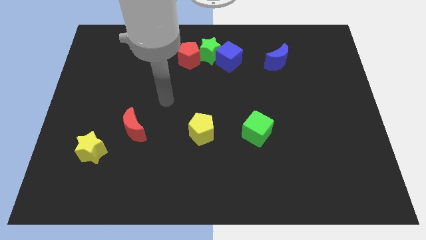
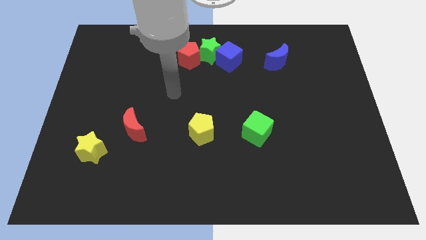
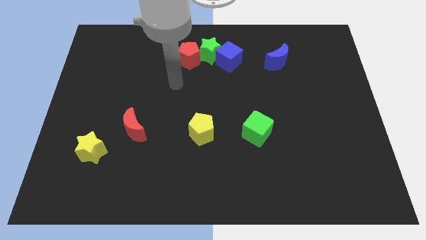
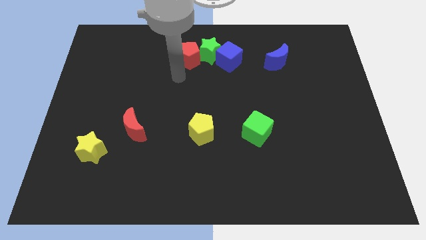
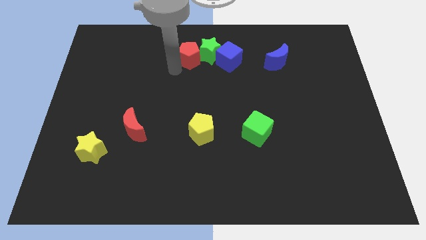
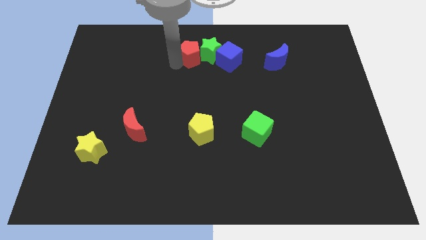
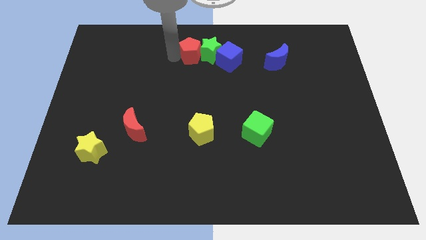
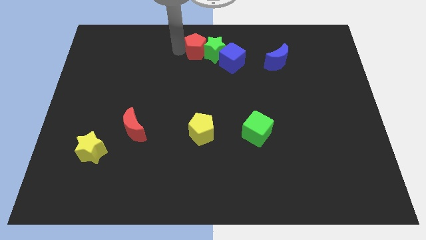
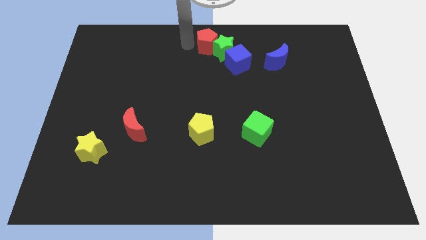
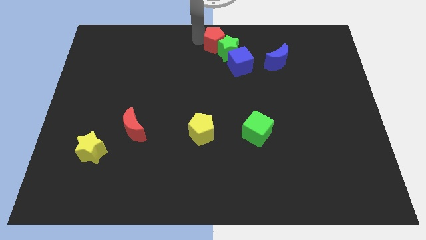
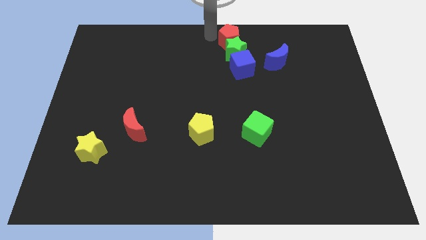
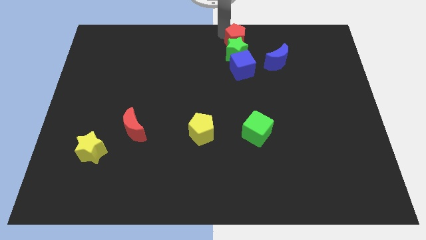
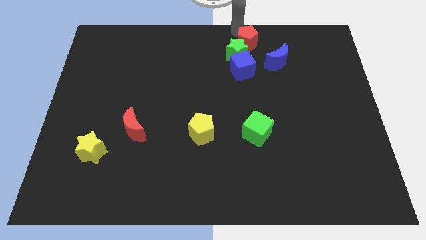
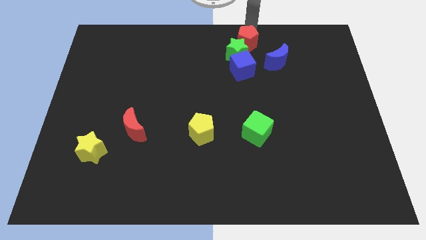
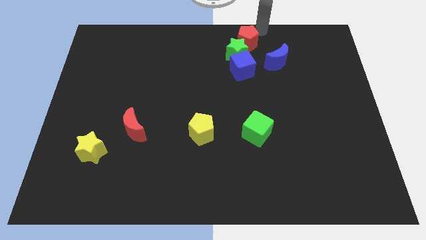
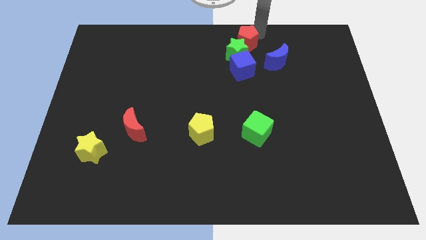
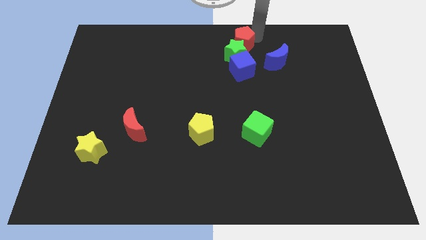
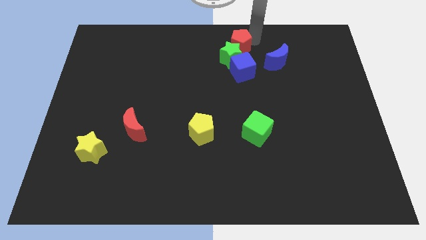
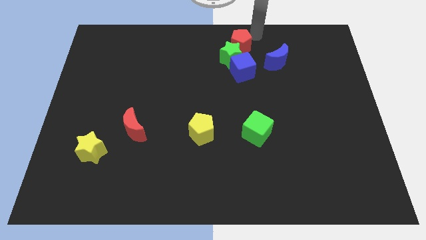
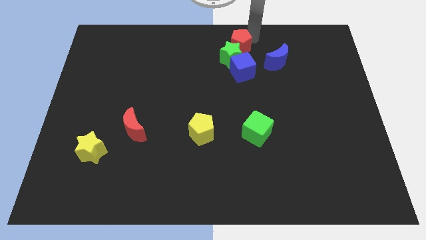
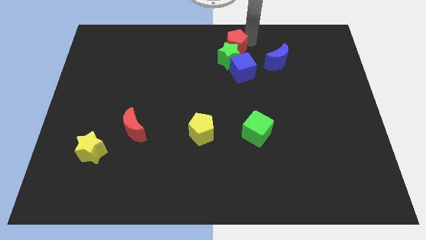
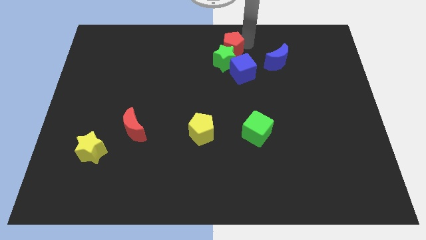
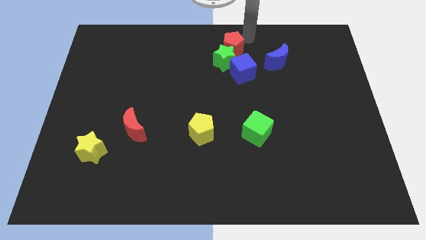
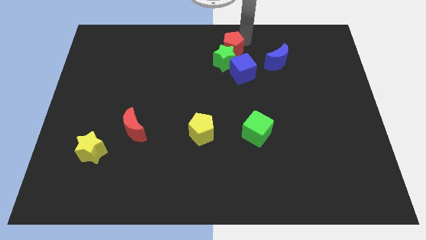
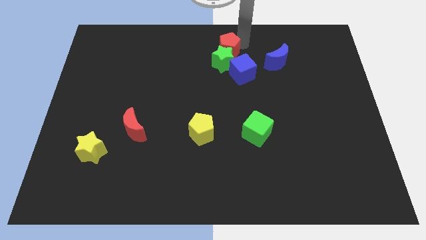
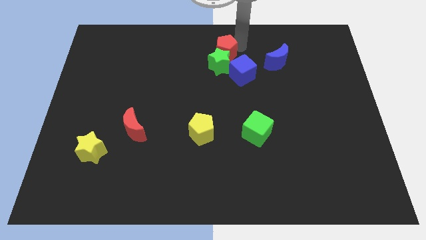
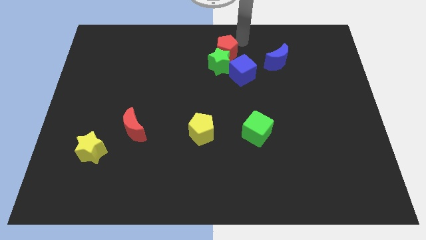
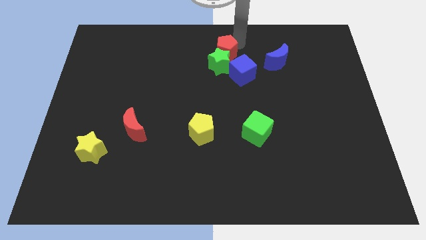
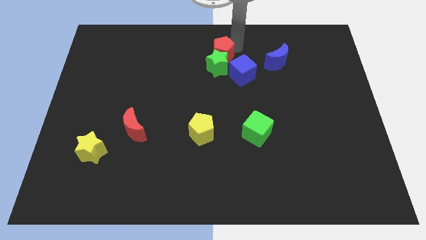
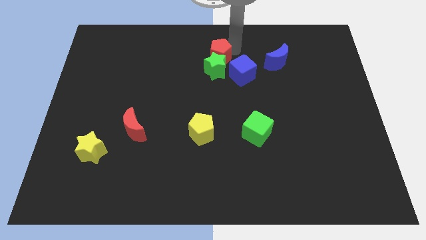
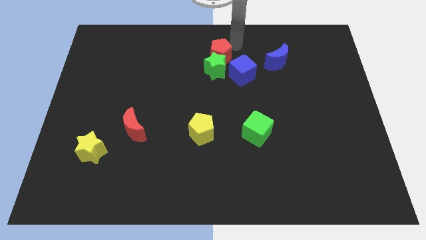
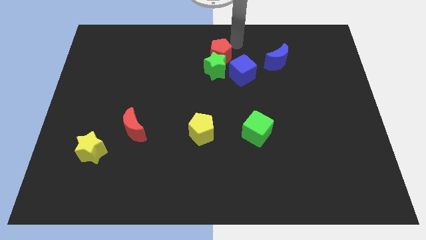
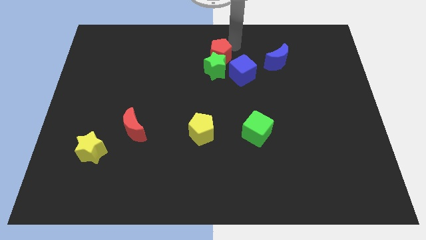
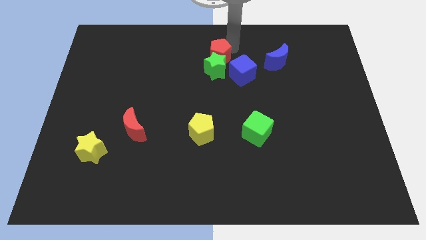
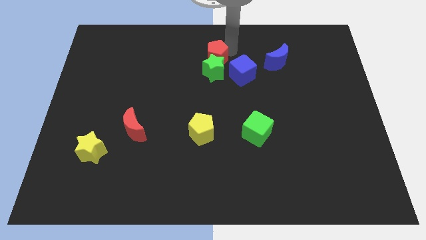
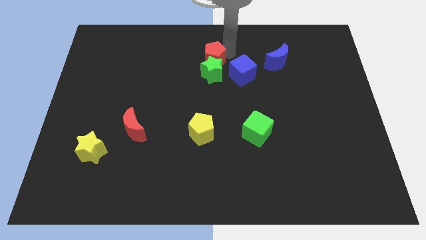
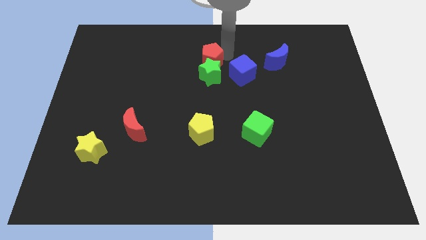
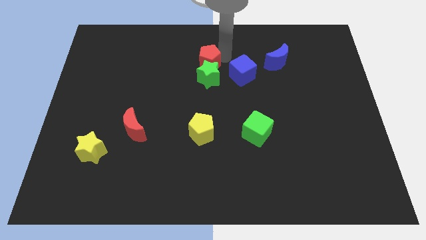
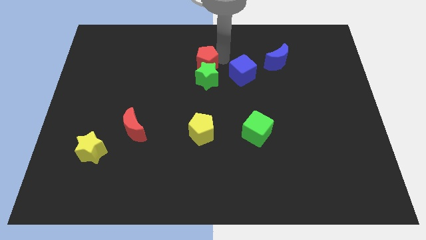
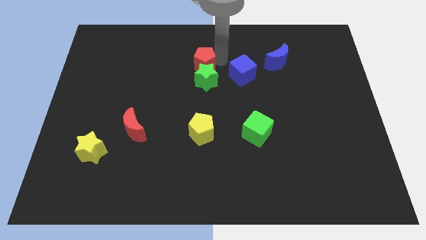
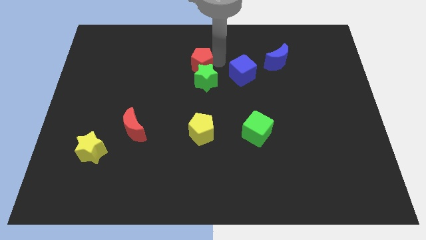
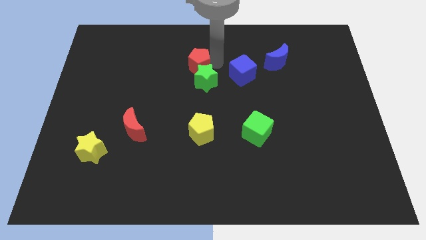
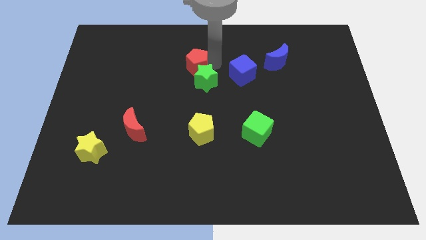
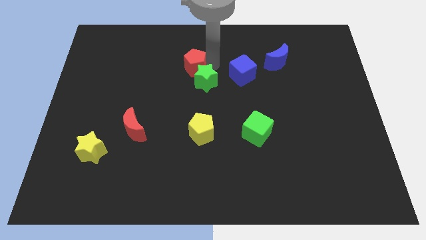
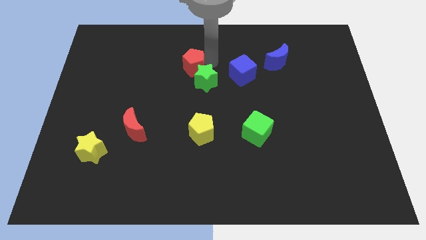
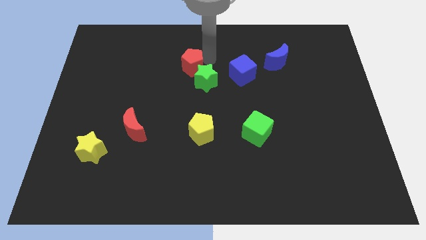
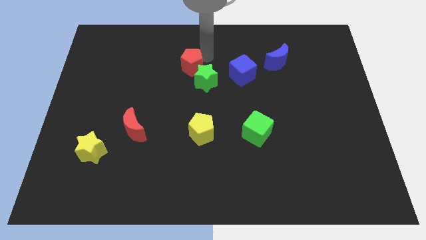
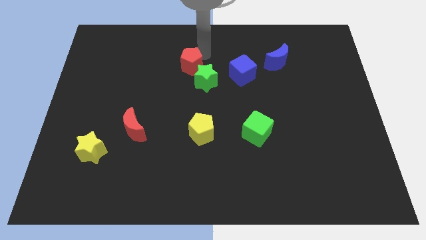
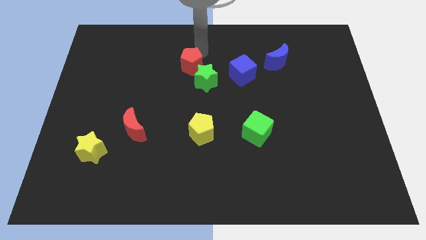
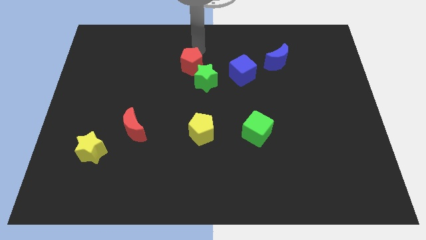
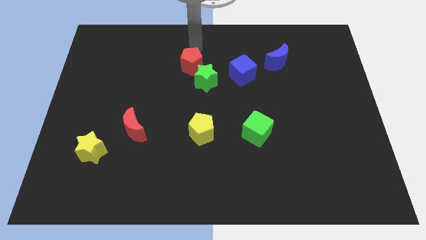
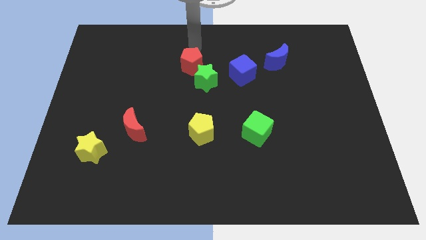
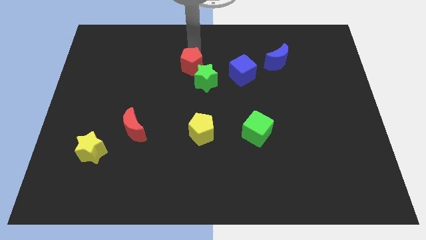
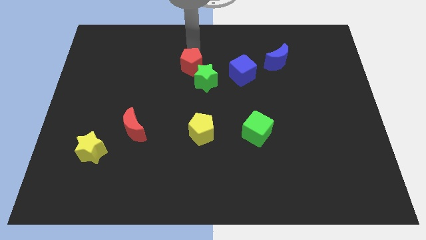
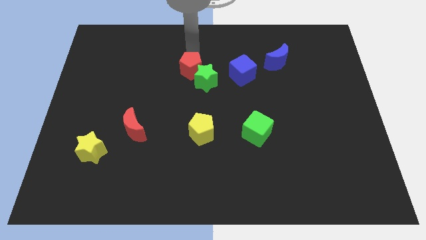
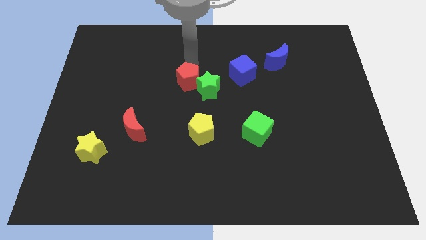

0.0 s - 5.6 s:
move the red pentagon down a little bit

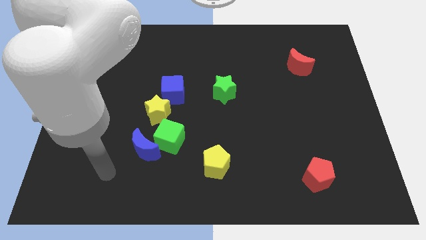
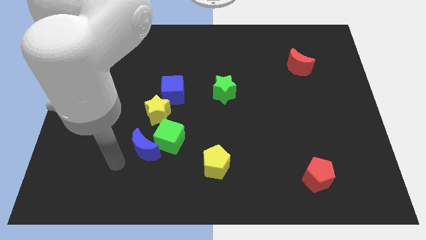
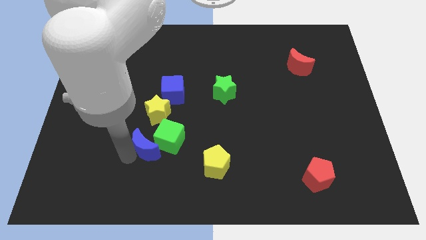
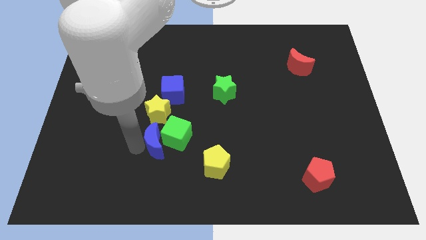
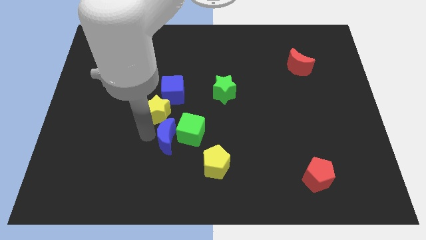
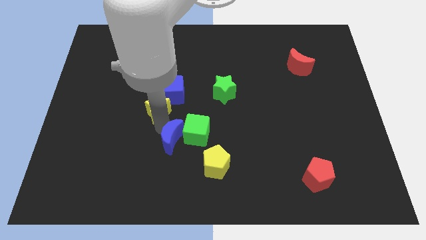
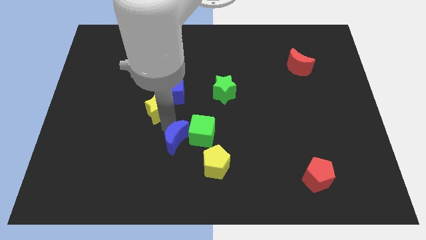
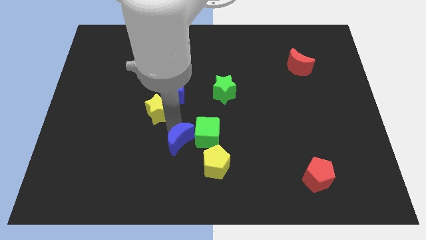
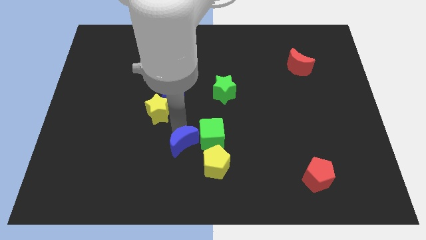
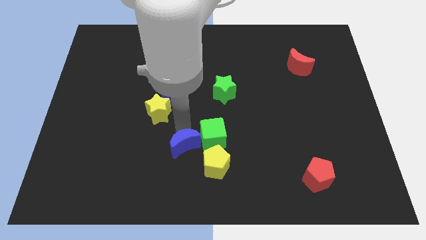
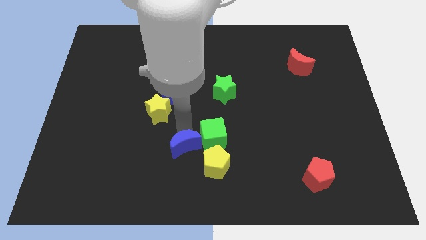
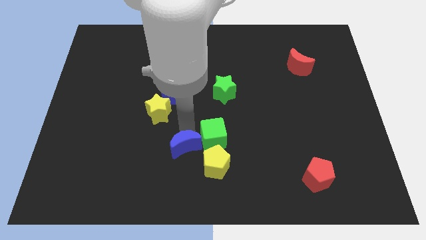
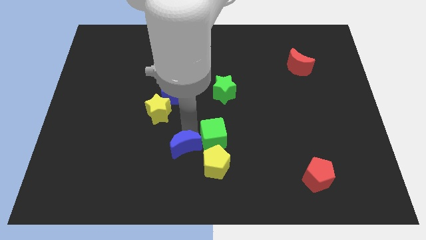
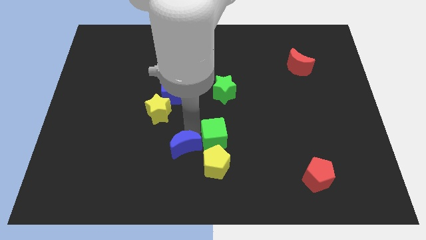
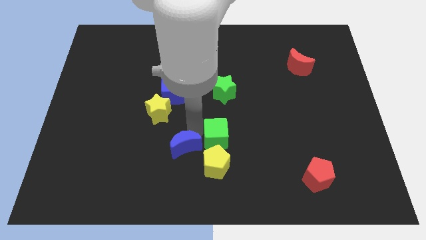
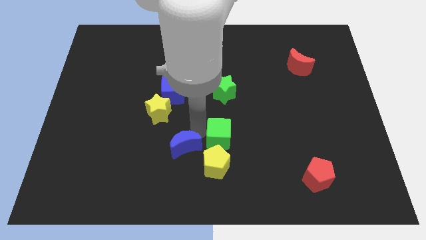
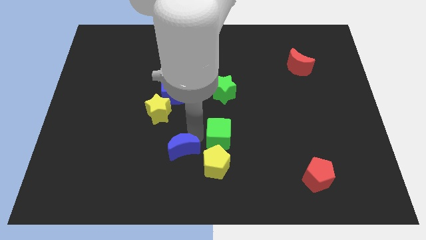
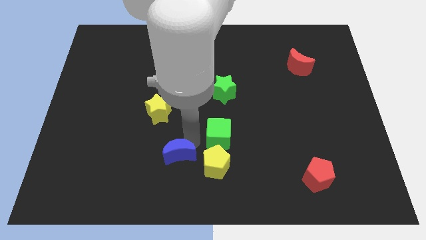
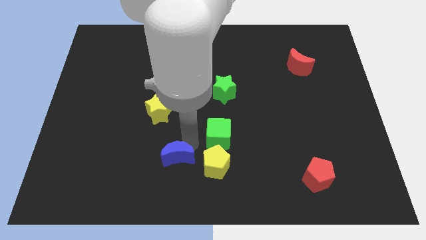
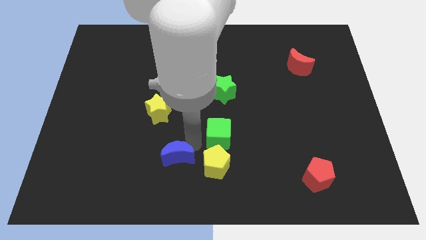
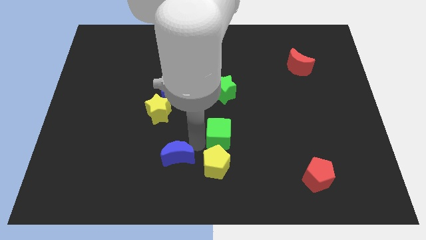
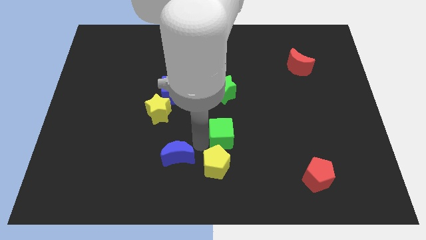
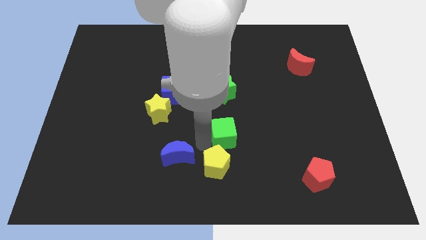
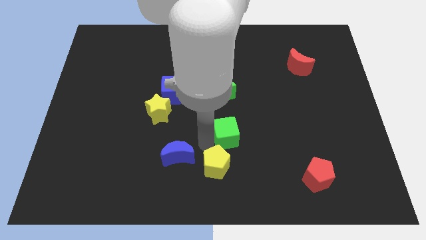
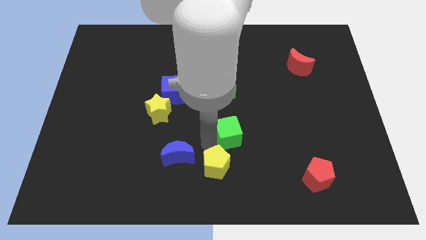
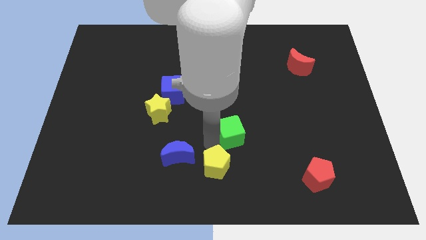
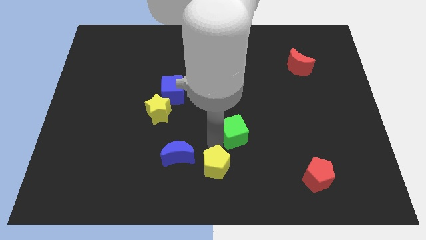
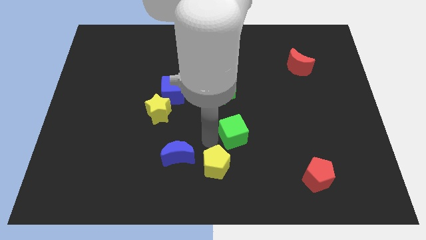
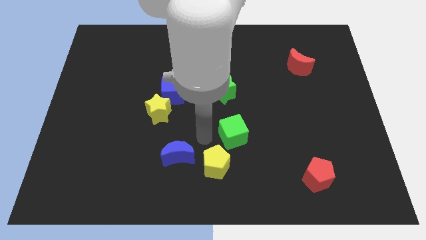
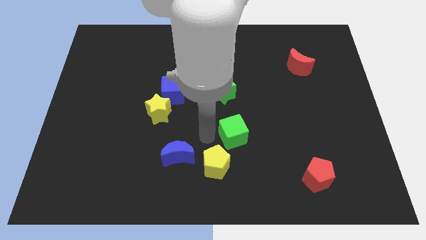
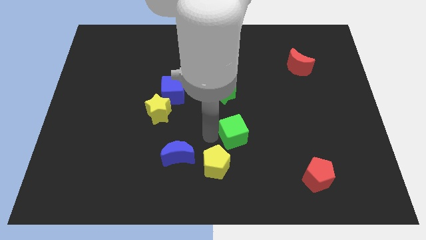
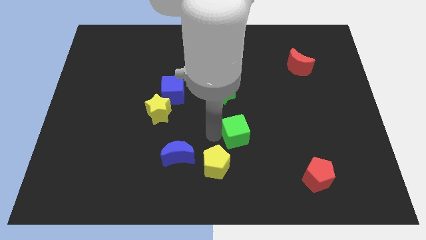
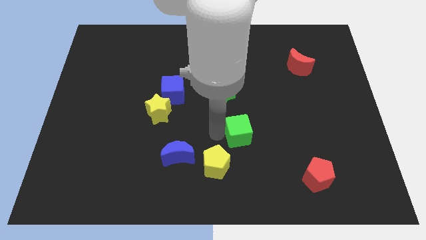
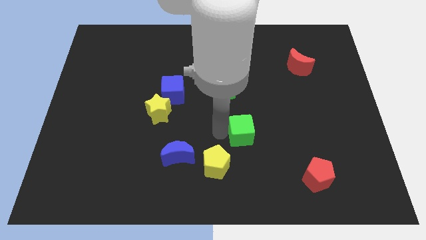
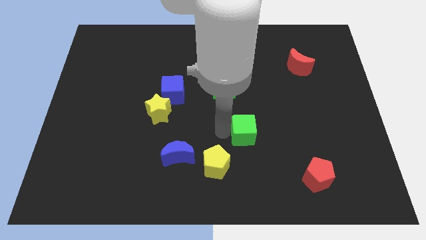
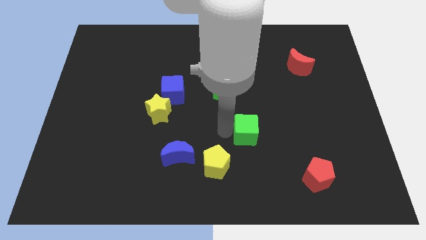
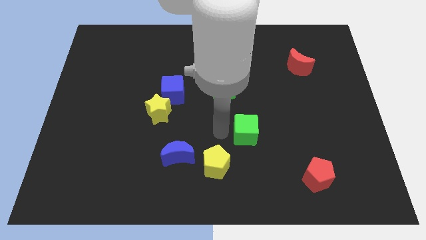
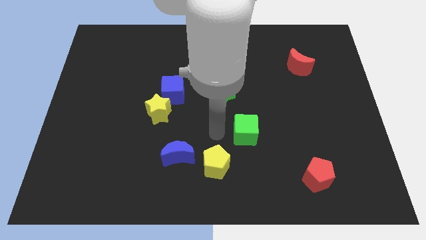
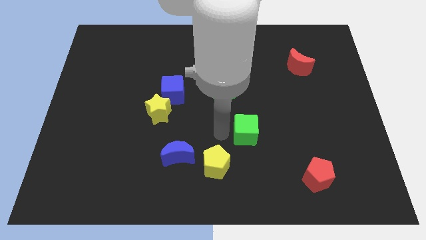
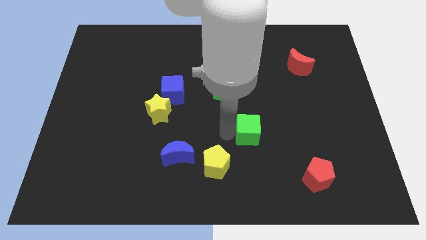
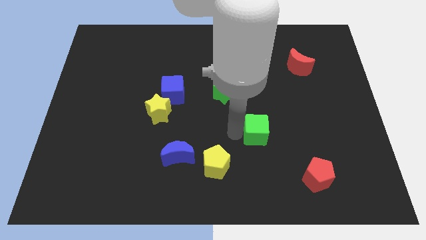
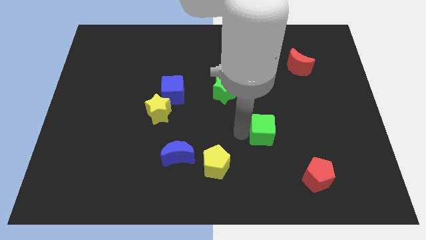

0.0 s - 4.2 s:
slide the green cube right
